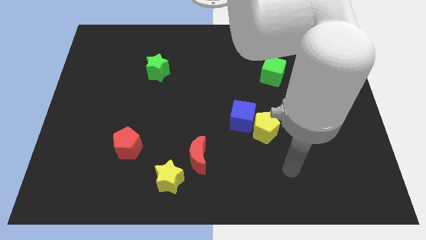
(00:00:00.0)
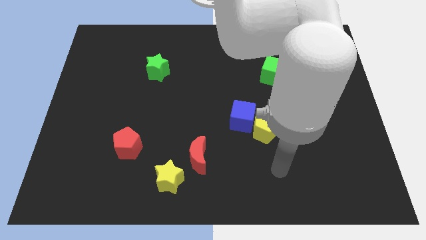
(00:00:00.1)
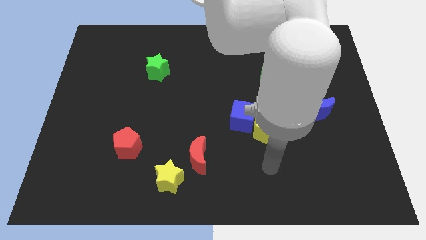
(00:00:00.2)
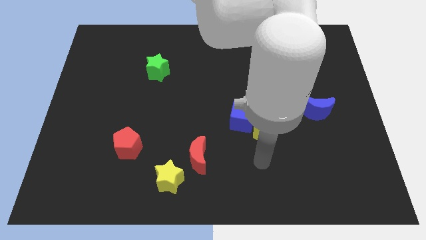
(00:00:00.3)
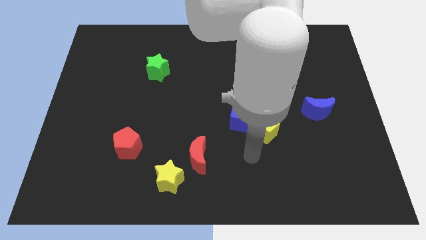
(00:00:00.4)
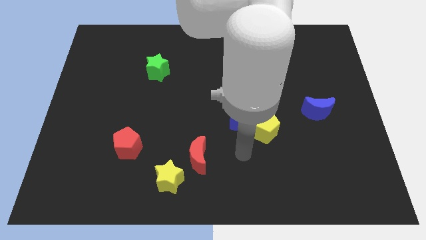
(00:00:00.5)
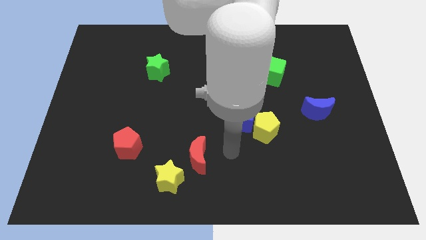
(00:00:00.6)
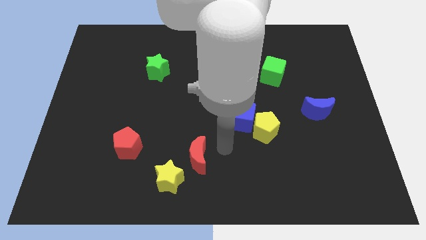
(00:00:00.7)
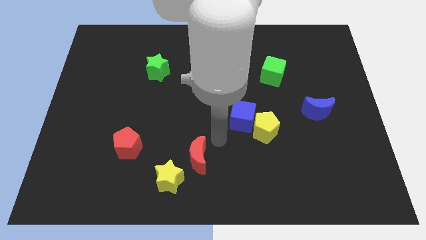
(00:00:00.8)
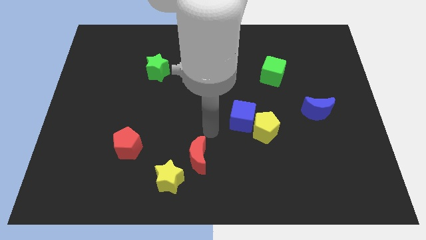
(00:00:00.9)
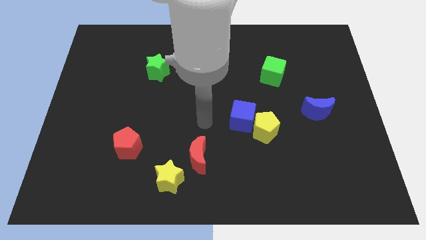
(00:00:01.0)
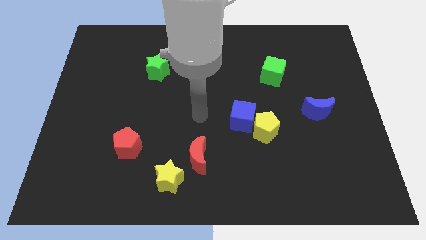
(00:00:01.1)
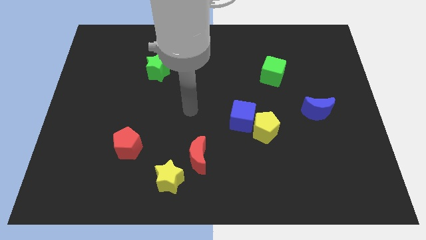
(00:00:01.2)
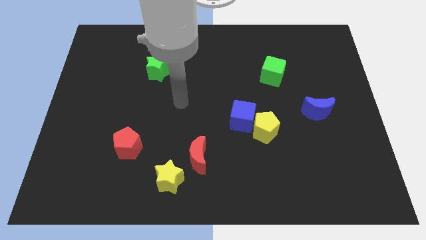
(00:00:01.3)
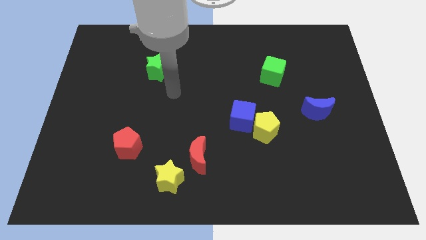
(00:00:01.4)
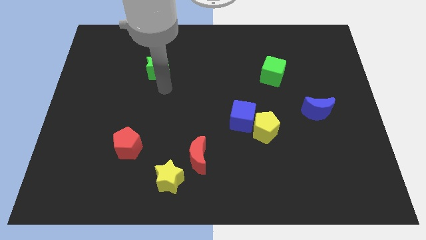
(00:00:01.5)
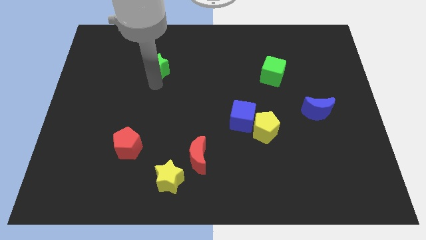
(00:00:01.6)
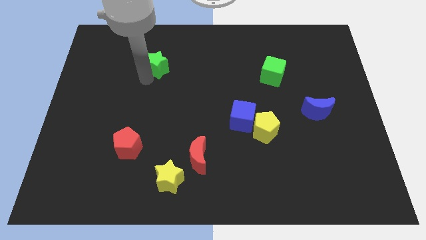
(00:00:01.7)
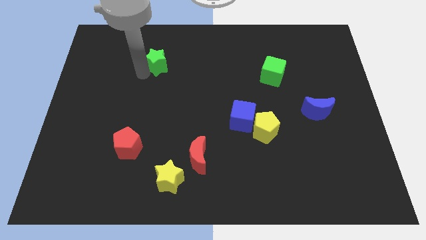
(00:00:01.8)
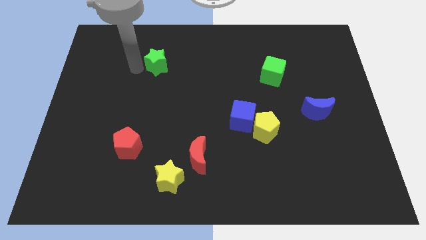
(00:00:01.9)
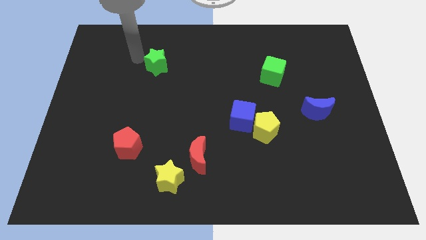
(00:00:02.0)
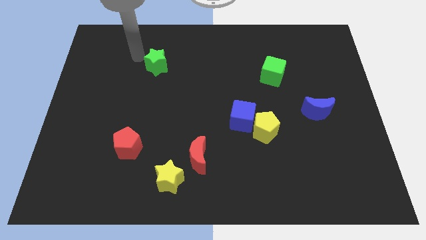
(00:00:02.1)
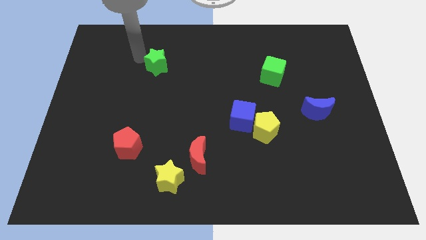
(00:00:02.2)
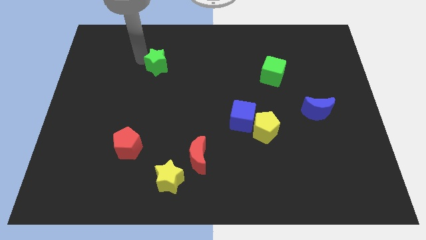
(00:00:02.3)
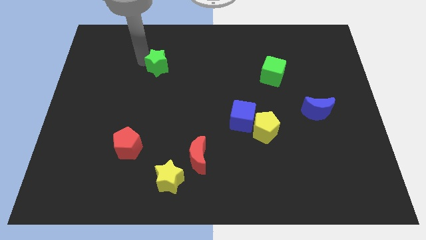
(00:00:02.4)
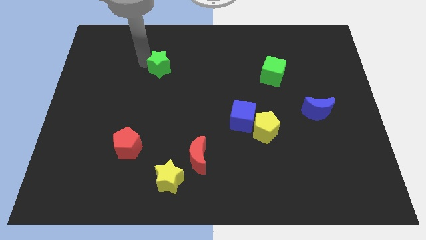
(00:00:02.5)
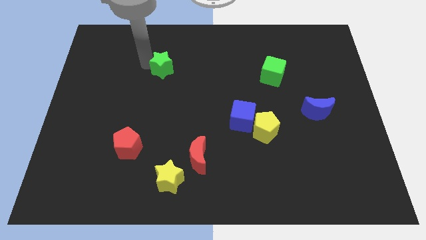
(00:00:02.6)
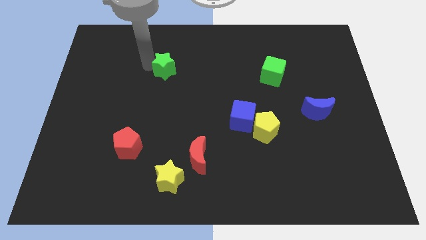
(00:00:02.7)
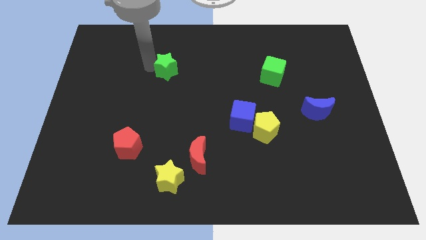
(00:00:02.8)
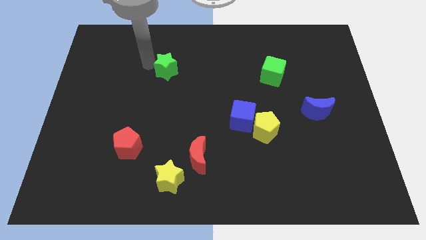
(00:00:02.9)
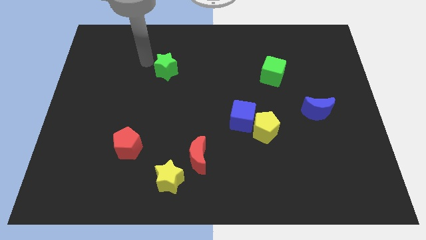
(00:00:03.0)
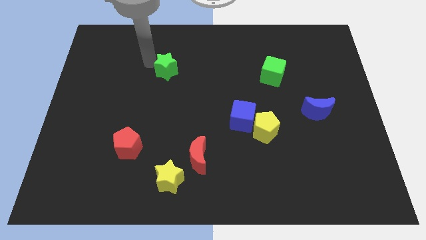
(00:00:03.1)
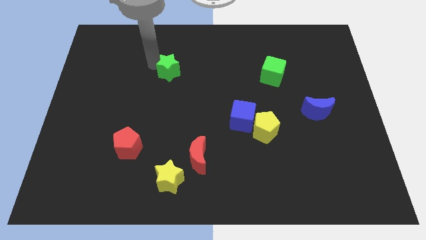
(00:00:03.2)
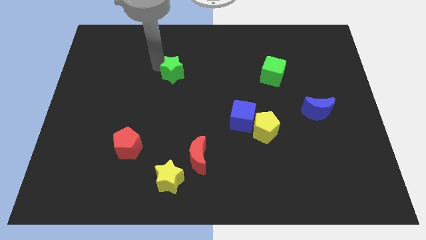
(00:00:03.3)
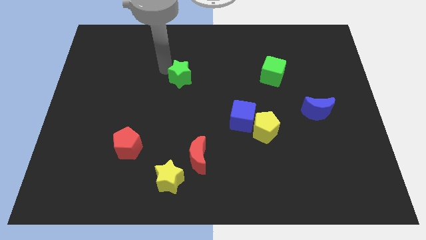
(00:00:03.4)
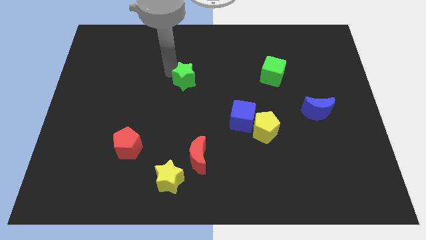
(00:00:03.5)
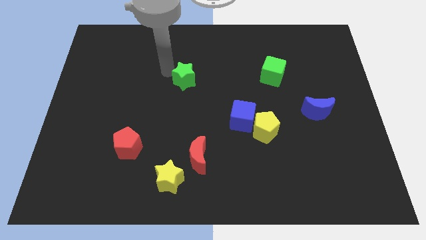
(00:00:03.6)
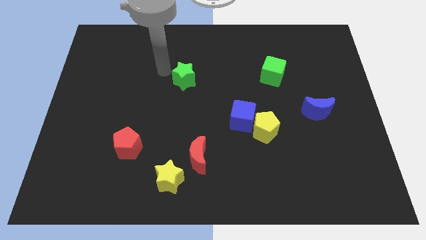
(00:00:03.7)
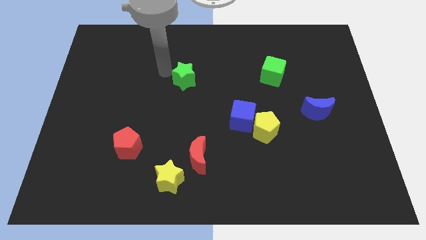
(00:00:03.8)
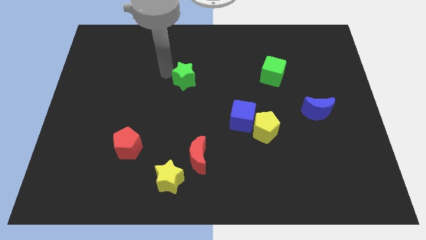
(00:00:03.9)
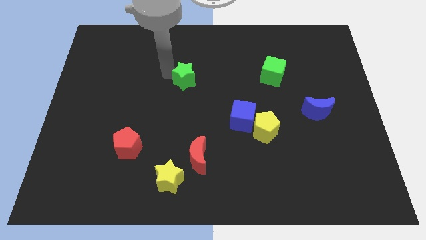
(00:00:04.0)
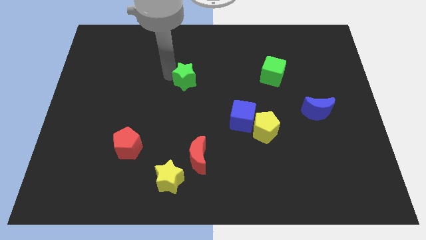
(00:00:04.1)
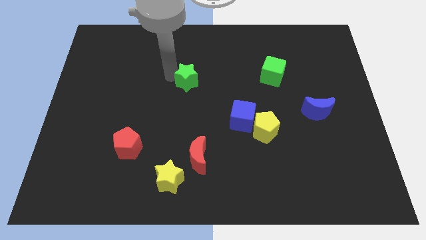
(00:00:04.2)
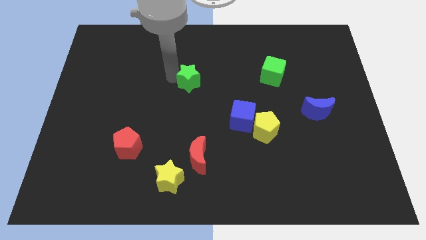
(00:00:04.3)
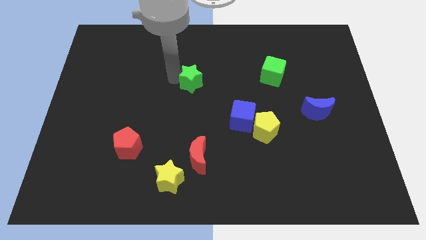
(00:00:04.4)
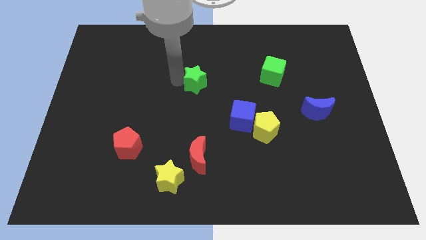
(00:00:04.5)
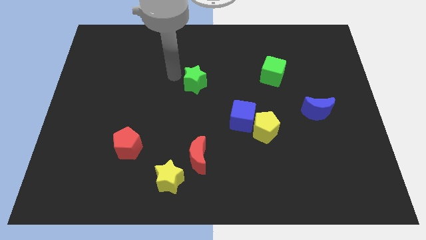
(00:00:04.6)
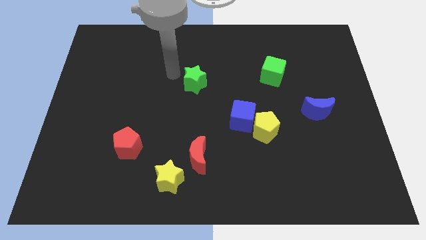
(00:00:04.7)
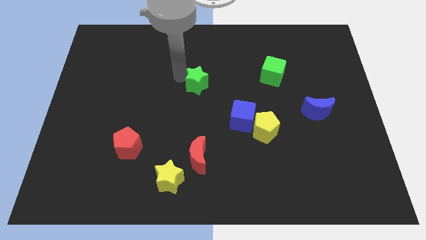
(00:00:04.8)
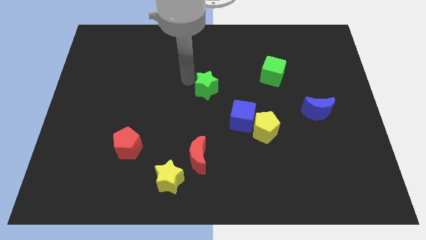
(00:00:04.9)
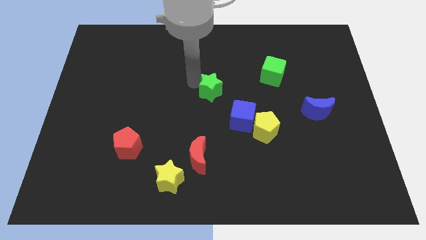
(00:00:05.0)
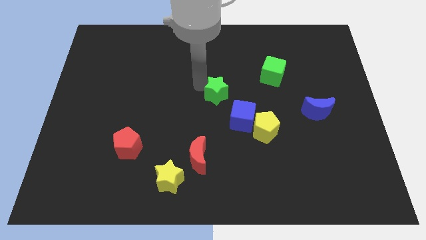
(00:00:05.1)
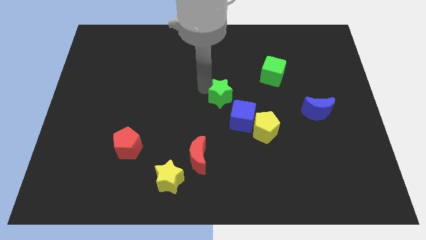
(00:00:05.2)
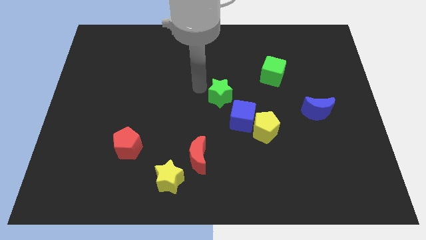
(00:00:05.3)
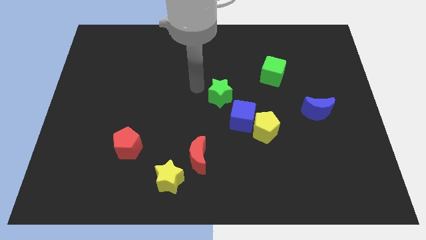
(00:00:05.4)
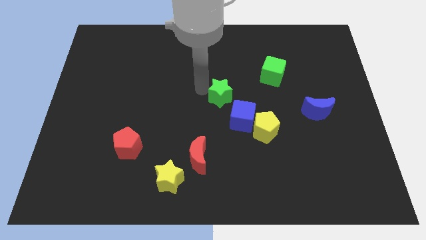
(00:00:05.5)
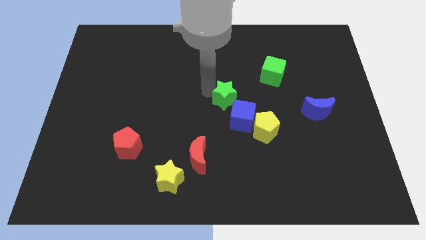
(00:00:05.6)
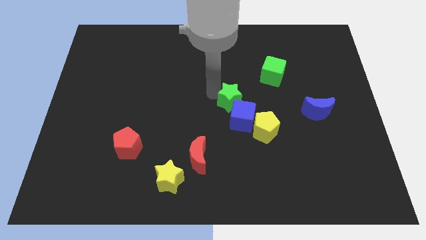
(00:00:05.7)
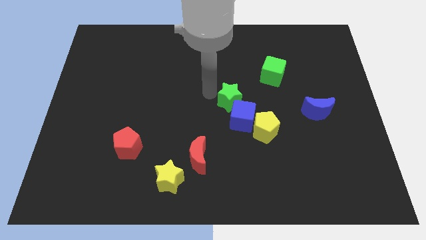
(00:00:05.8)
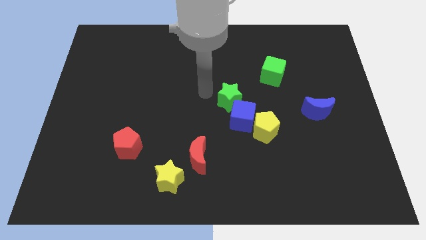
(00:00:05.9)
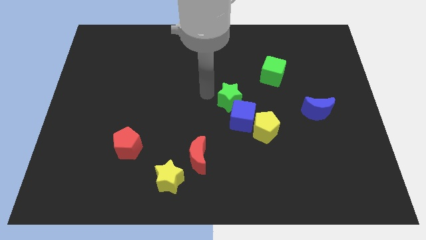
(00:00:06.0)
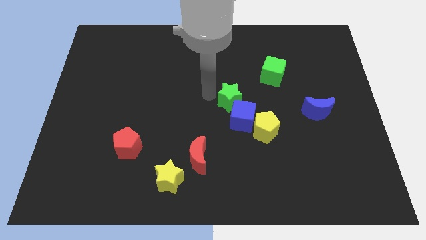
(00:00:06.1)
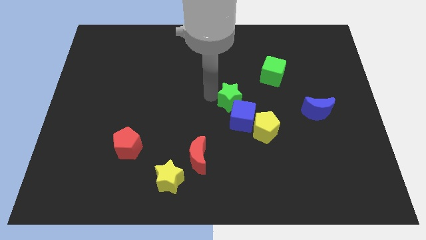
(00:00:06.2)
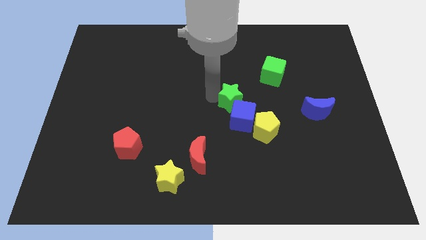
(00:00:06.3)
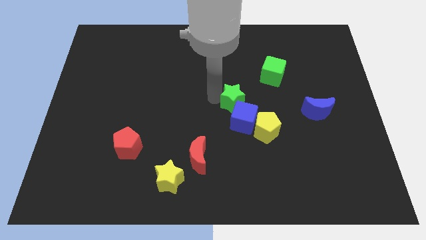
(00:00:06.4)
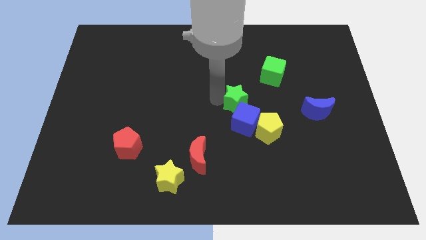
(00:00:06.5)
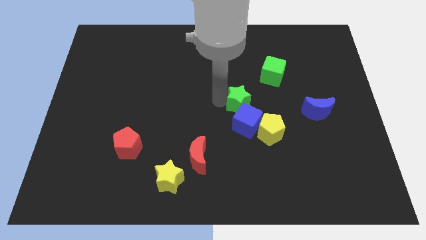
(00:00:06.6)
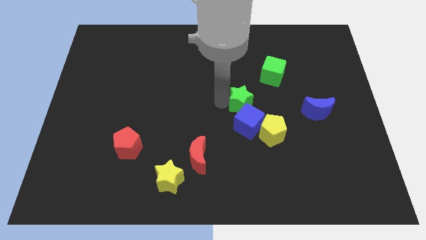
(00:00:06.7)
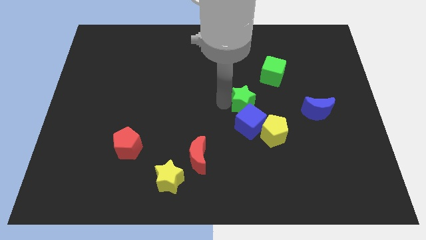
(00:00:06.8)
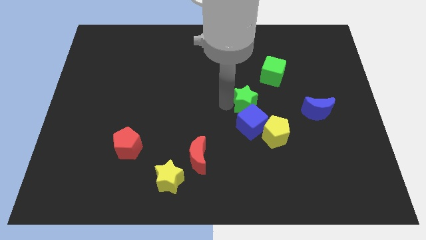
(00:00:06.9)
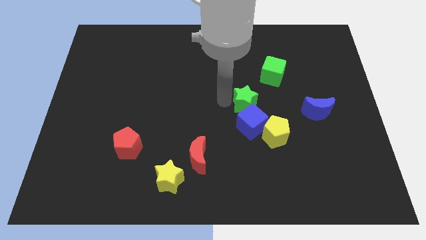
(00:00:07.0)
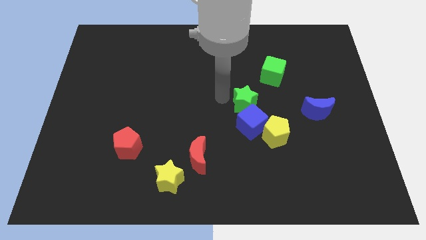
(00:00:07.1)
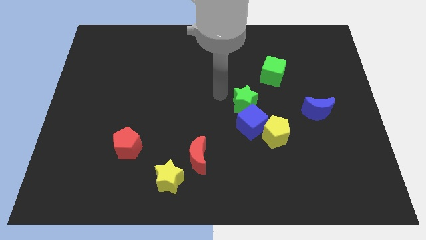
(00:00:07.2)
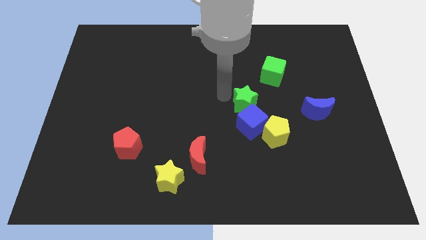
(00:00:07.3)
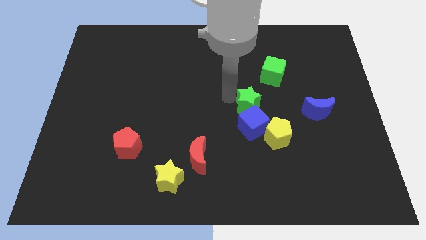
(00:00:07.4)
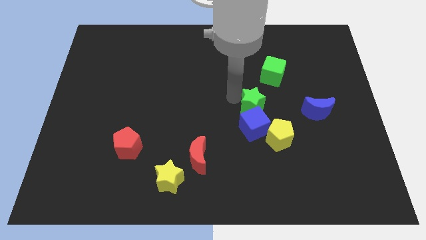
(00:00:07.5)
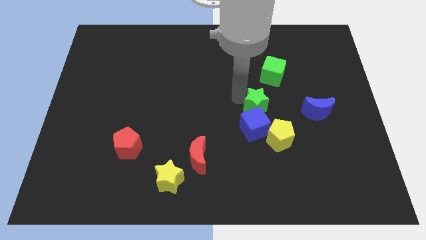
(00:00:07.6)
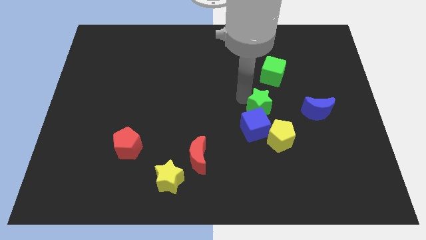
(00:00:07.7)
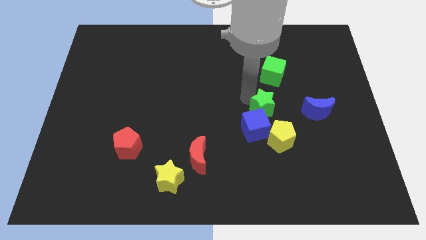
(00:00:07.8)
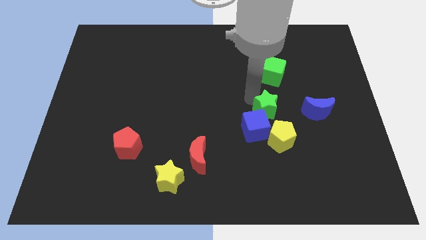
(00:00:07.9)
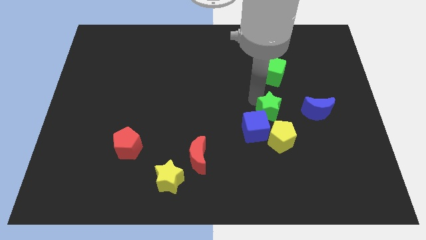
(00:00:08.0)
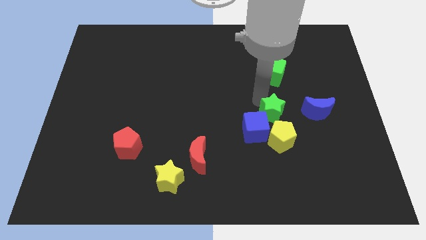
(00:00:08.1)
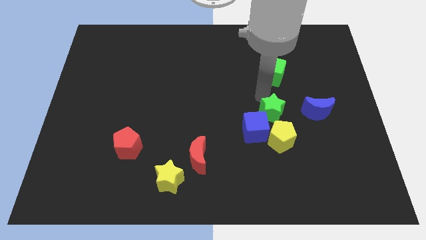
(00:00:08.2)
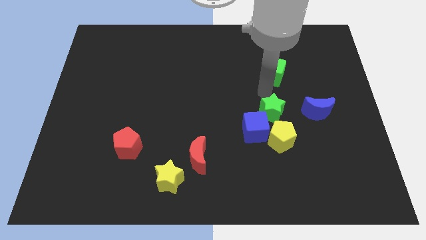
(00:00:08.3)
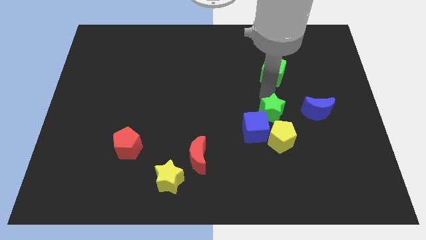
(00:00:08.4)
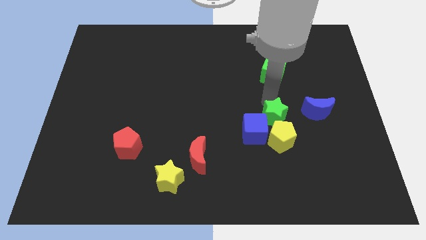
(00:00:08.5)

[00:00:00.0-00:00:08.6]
push the green star next to the yellow pentagon
